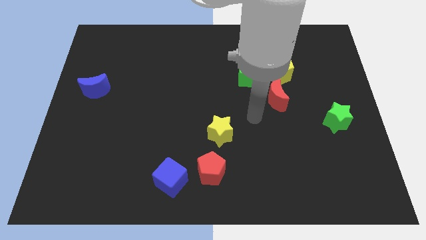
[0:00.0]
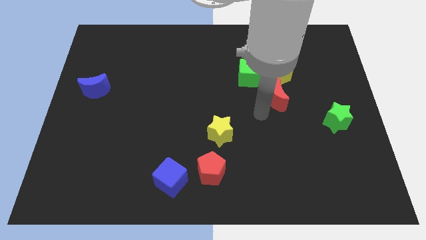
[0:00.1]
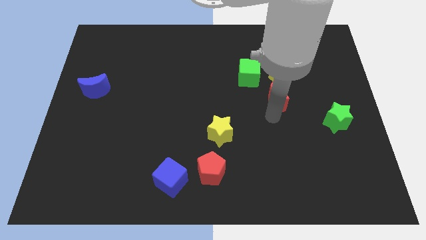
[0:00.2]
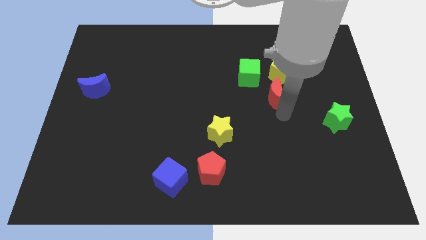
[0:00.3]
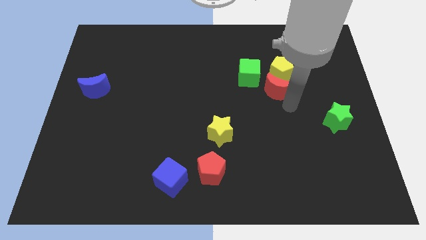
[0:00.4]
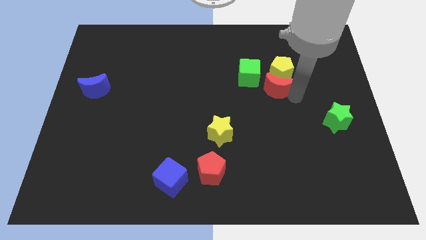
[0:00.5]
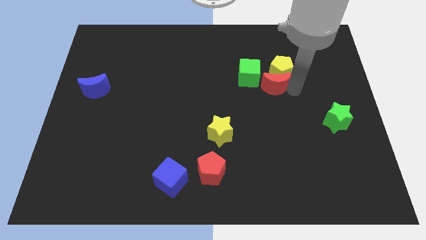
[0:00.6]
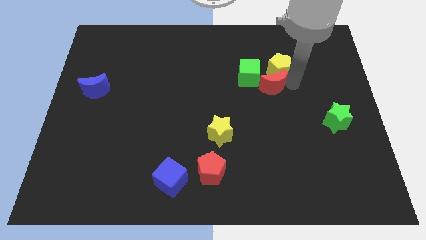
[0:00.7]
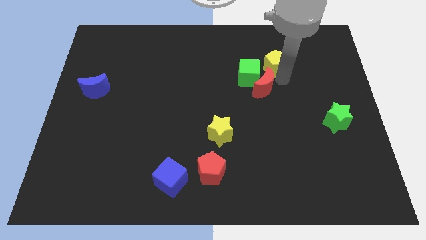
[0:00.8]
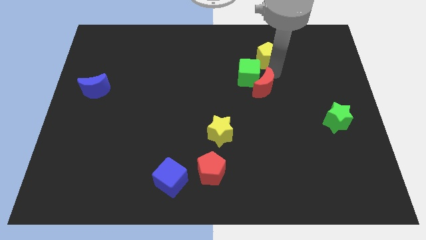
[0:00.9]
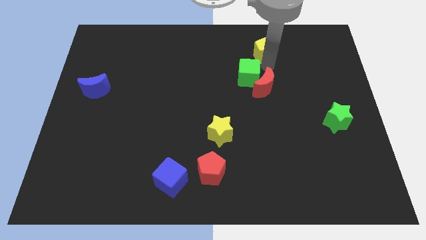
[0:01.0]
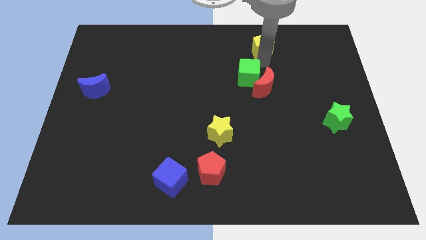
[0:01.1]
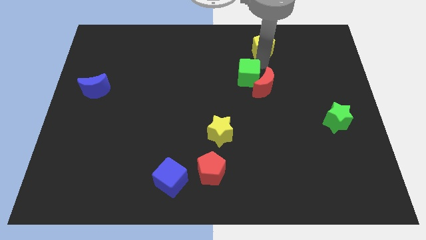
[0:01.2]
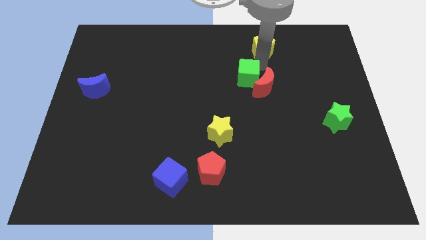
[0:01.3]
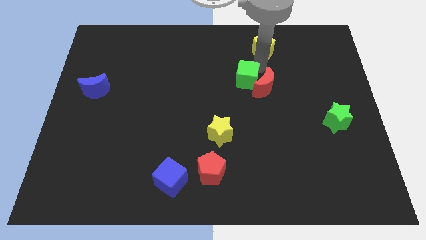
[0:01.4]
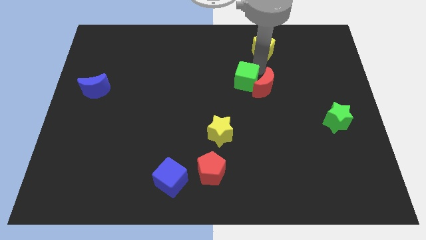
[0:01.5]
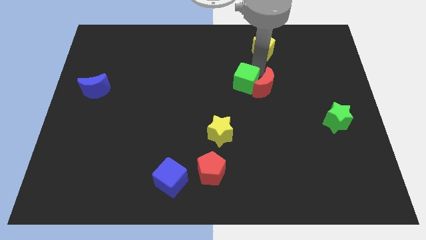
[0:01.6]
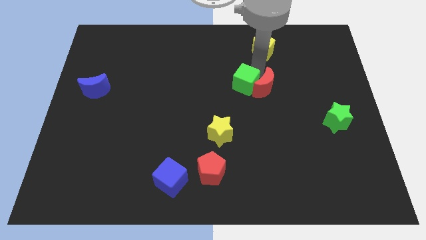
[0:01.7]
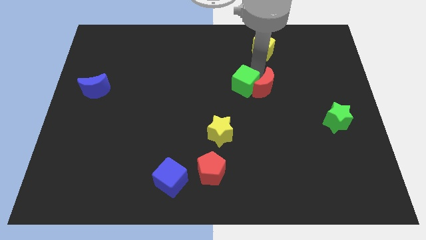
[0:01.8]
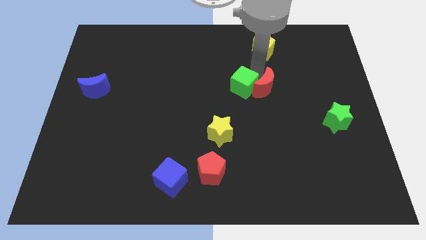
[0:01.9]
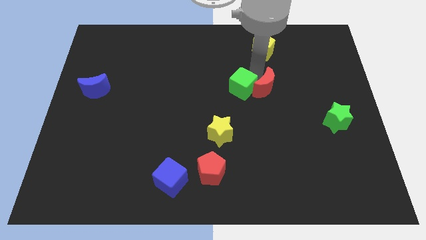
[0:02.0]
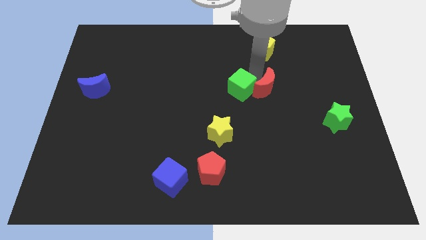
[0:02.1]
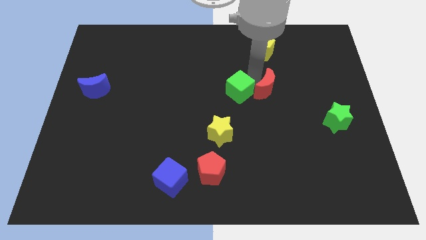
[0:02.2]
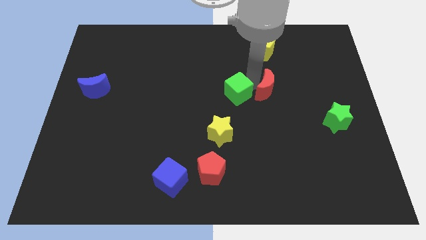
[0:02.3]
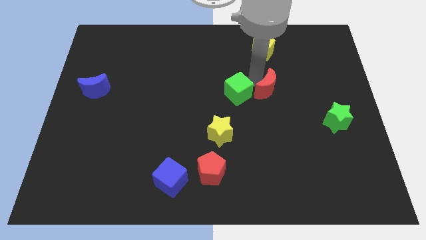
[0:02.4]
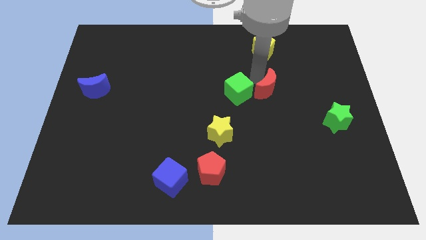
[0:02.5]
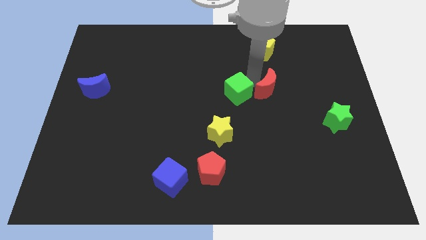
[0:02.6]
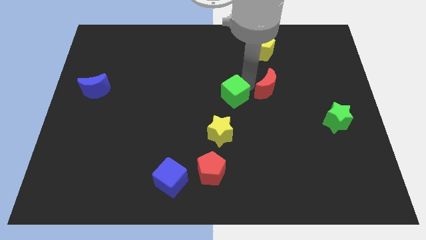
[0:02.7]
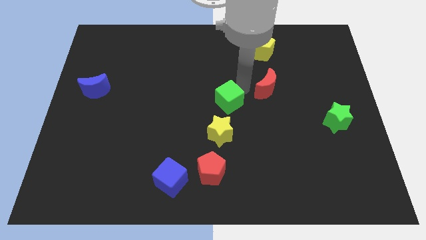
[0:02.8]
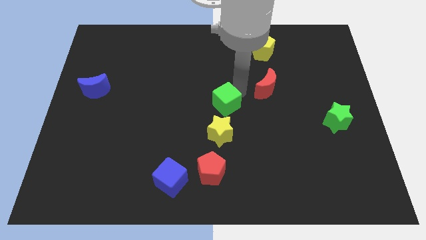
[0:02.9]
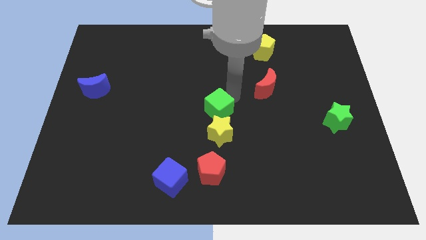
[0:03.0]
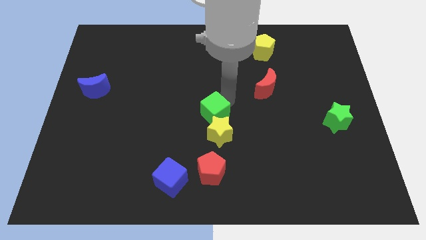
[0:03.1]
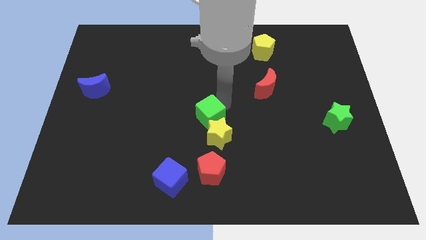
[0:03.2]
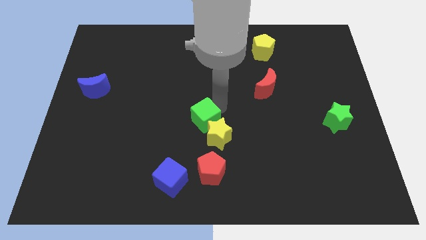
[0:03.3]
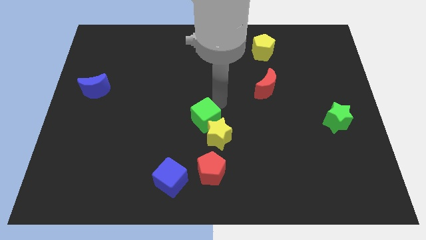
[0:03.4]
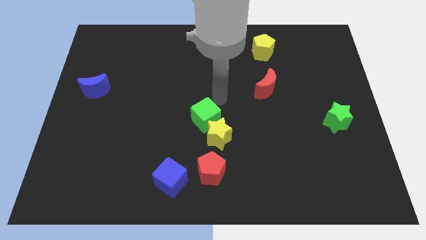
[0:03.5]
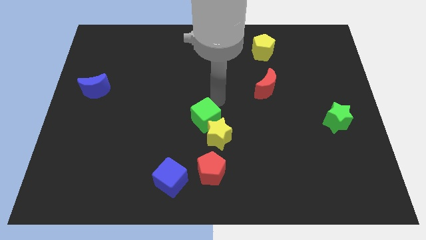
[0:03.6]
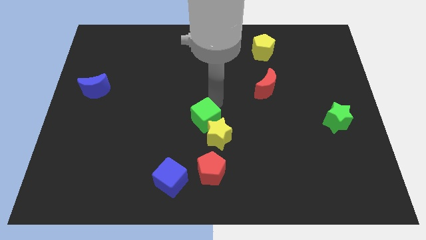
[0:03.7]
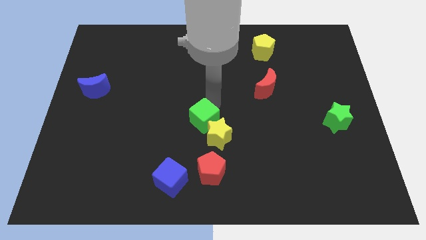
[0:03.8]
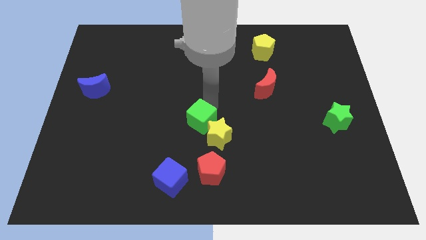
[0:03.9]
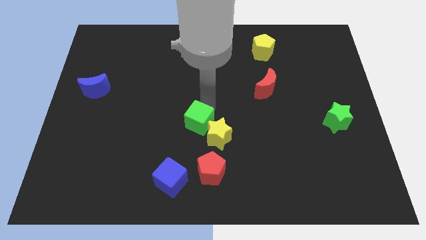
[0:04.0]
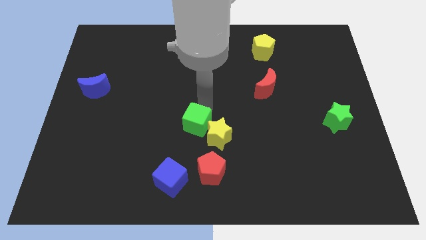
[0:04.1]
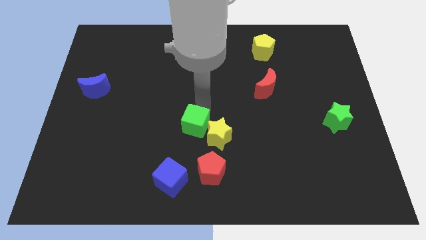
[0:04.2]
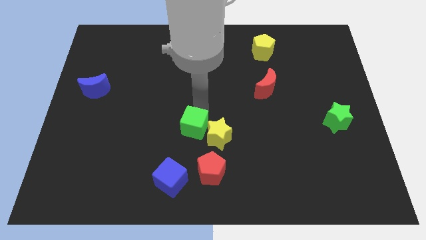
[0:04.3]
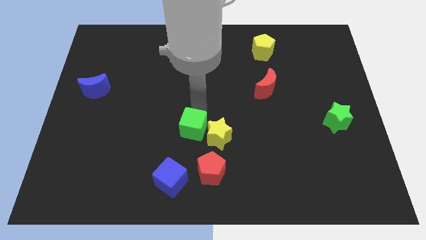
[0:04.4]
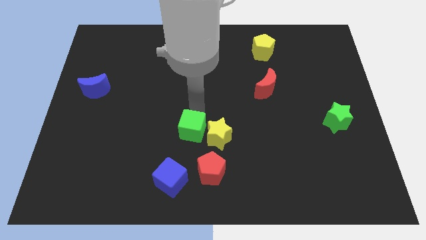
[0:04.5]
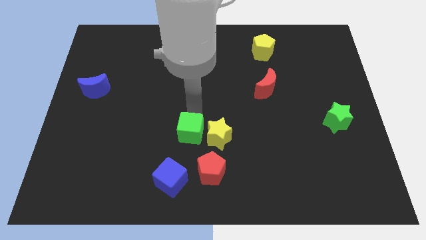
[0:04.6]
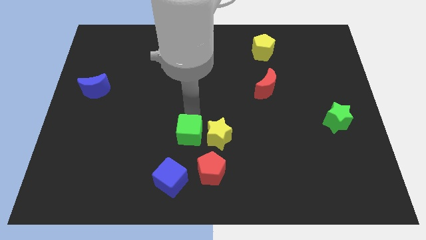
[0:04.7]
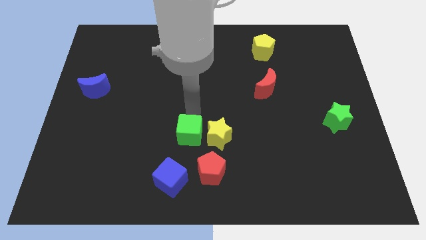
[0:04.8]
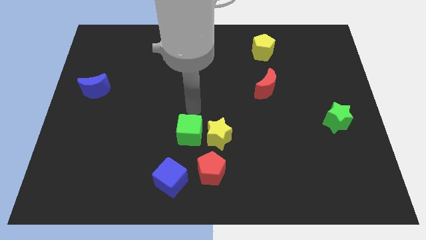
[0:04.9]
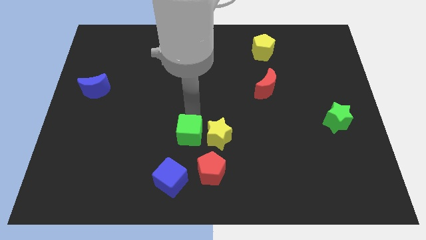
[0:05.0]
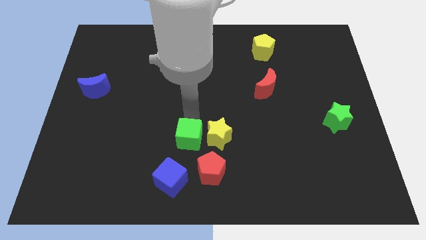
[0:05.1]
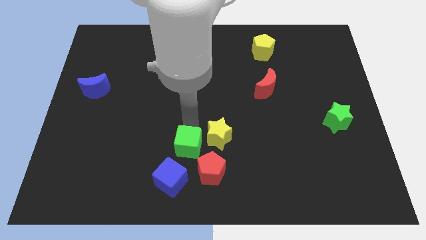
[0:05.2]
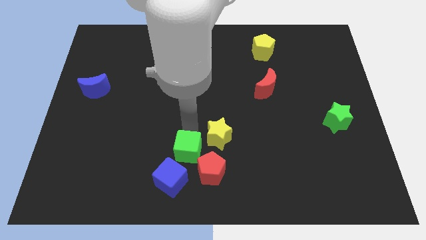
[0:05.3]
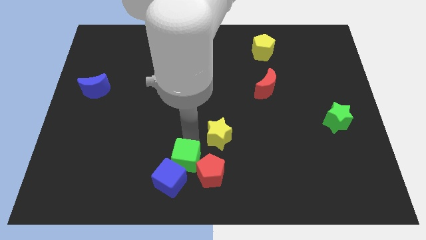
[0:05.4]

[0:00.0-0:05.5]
put the green cube next to the blue cube

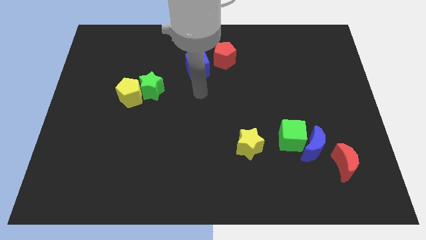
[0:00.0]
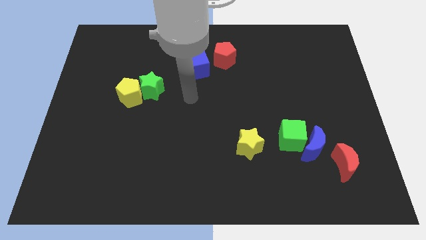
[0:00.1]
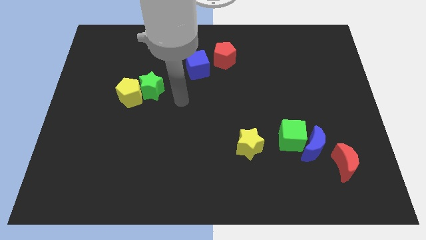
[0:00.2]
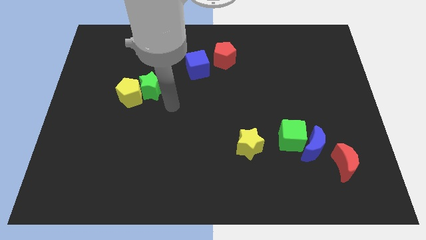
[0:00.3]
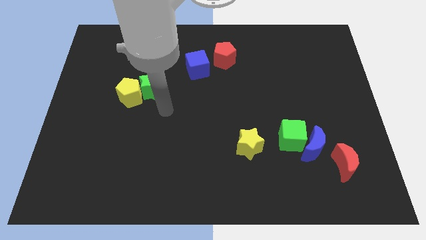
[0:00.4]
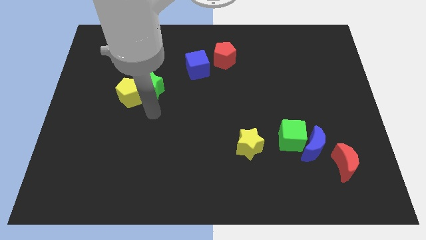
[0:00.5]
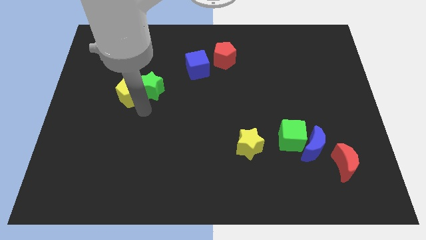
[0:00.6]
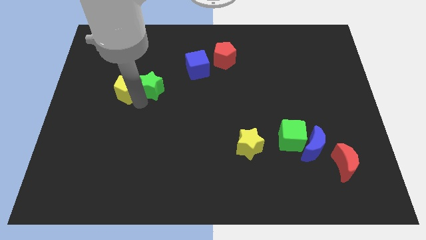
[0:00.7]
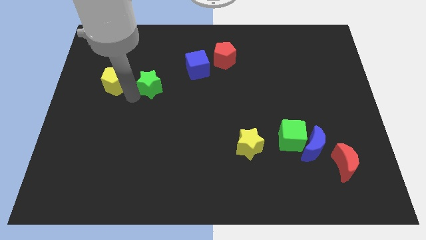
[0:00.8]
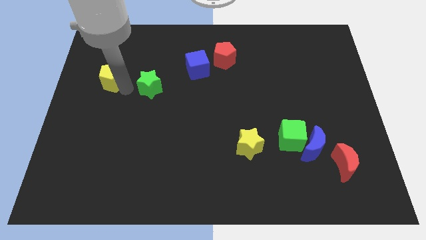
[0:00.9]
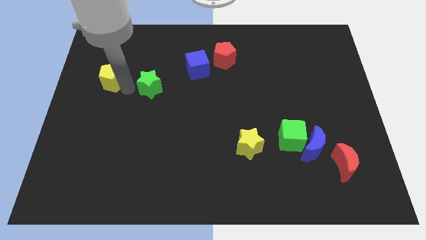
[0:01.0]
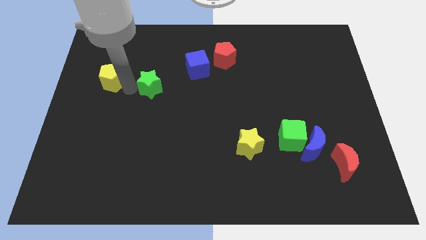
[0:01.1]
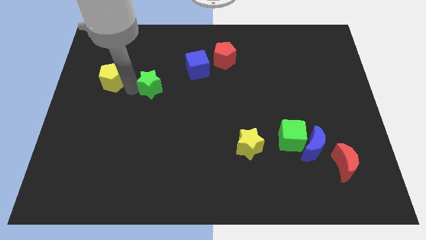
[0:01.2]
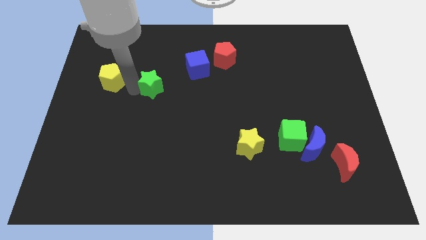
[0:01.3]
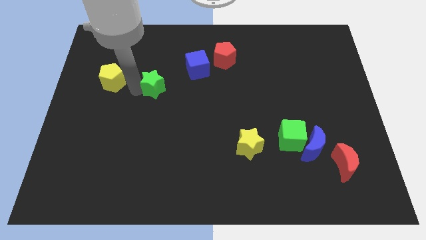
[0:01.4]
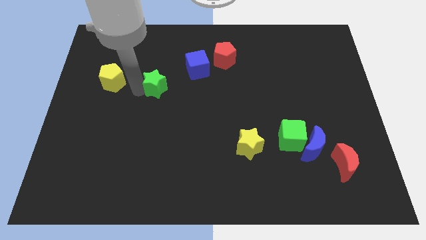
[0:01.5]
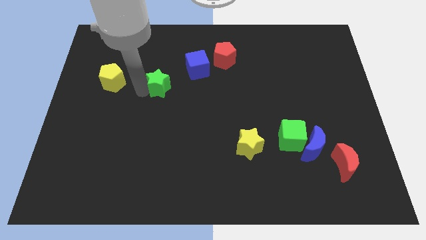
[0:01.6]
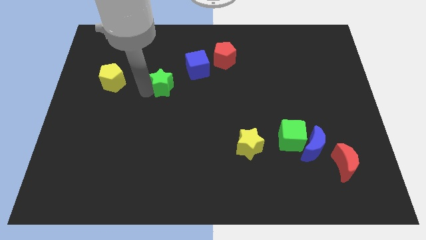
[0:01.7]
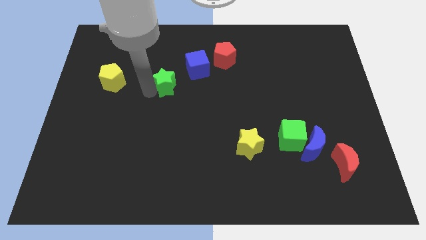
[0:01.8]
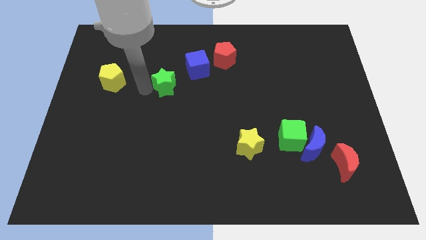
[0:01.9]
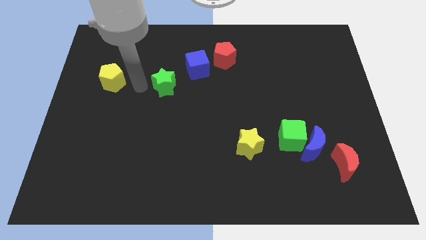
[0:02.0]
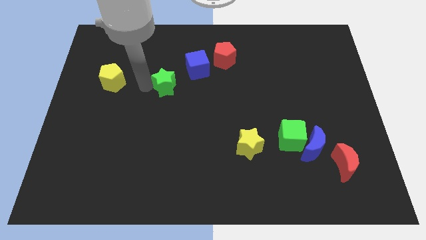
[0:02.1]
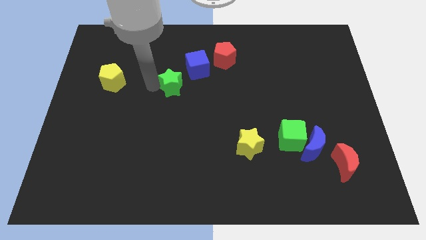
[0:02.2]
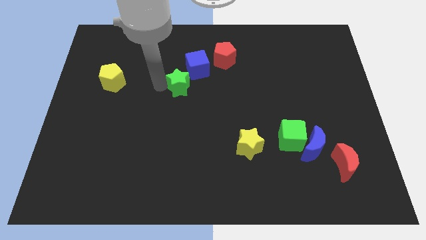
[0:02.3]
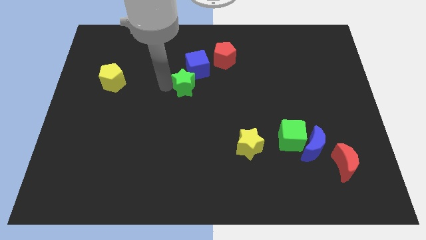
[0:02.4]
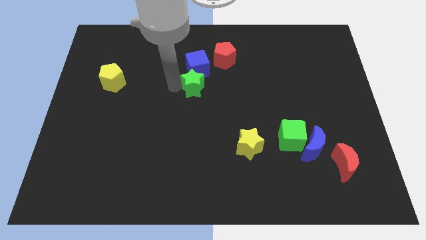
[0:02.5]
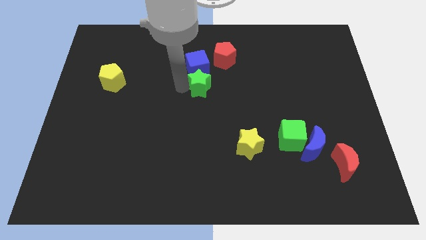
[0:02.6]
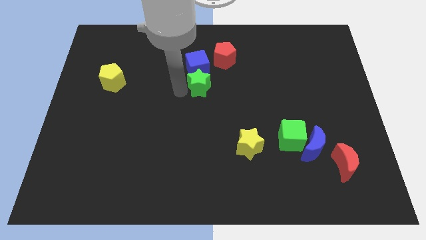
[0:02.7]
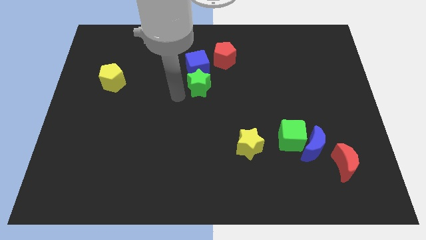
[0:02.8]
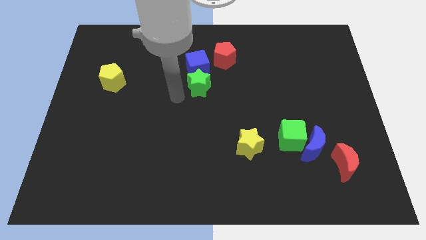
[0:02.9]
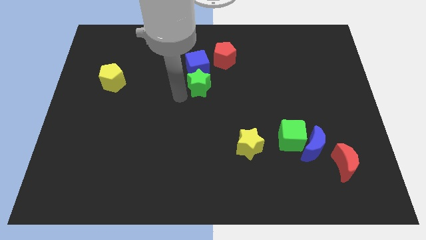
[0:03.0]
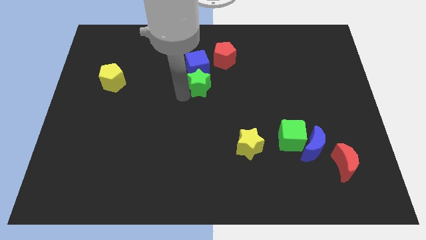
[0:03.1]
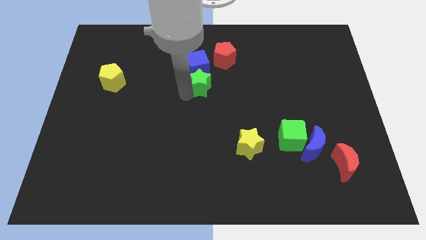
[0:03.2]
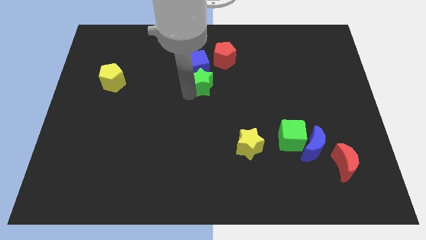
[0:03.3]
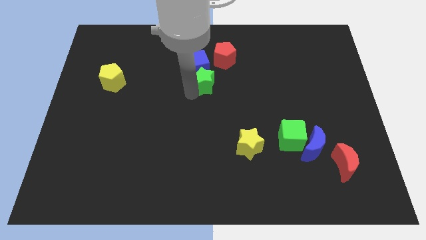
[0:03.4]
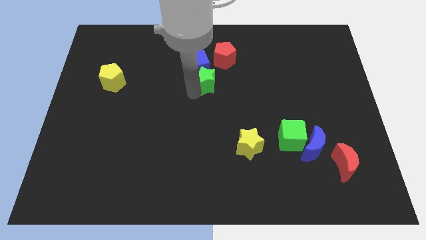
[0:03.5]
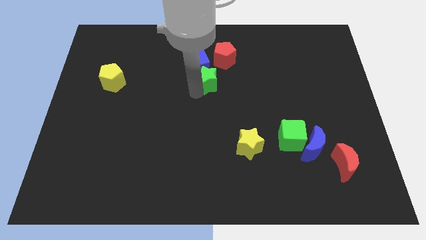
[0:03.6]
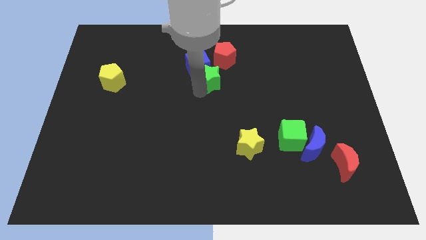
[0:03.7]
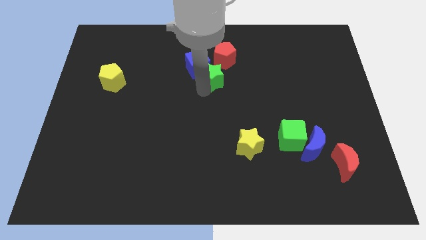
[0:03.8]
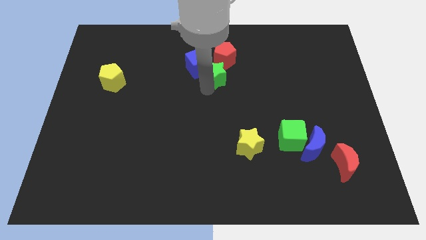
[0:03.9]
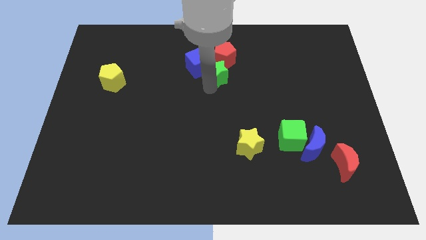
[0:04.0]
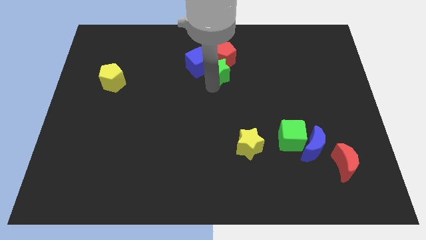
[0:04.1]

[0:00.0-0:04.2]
put the green star to the red pentagon
